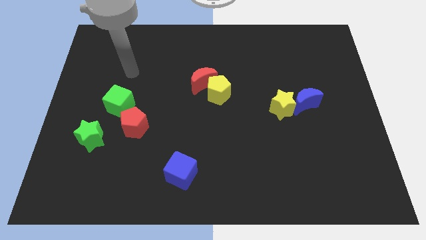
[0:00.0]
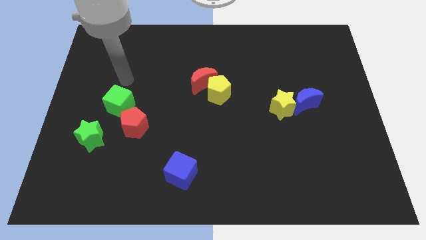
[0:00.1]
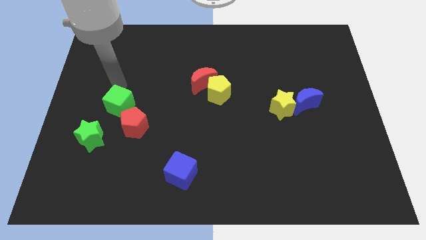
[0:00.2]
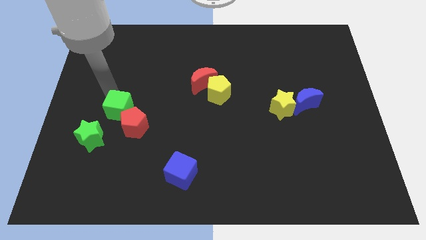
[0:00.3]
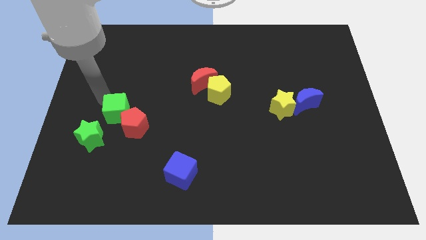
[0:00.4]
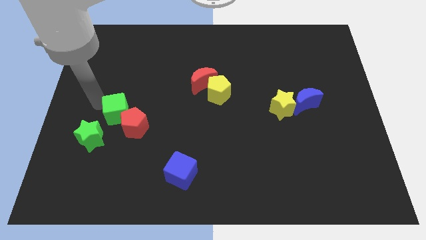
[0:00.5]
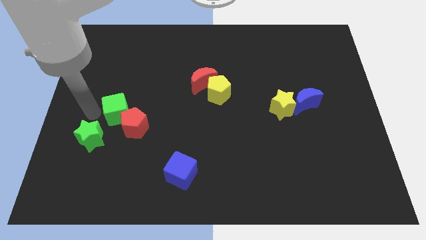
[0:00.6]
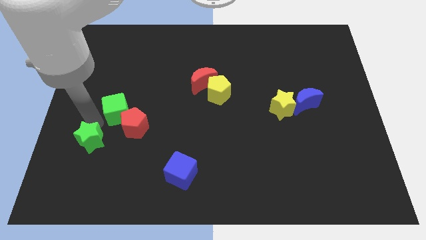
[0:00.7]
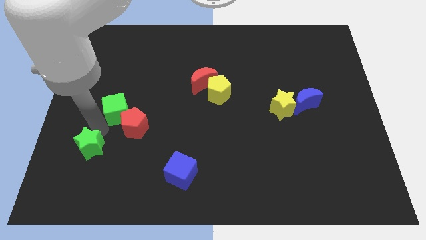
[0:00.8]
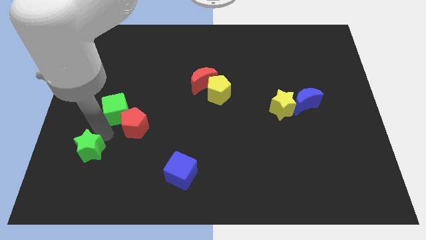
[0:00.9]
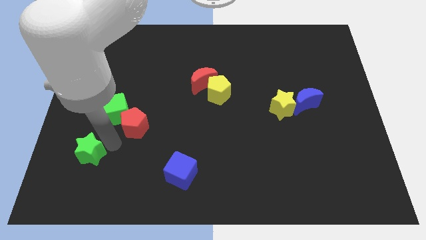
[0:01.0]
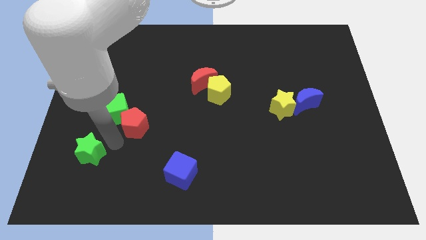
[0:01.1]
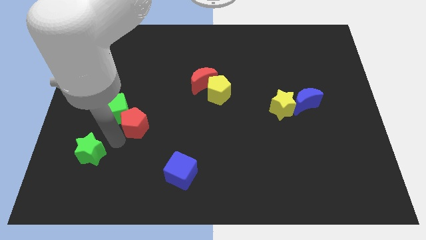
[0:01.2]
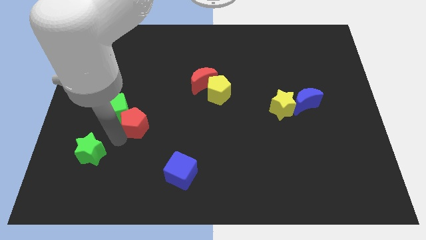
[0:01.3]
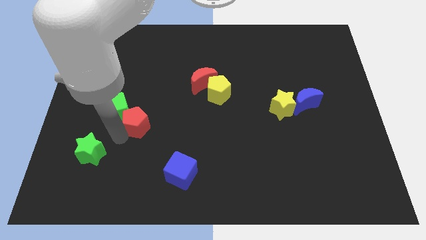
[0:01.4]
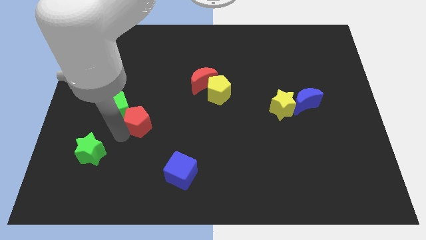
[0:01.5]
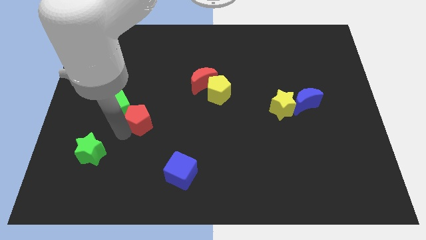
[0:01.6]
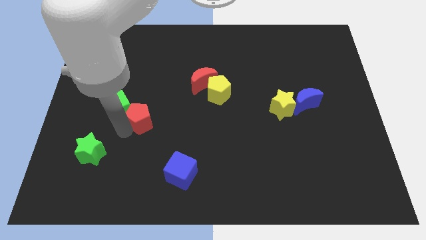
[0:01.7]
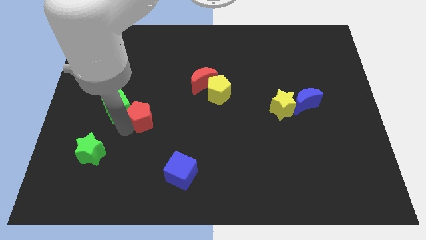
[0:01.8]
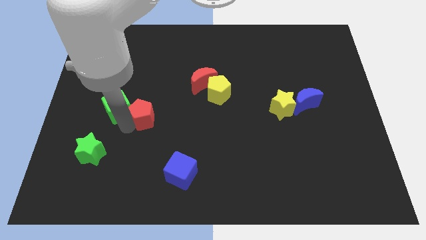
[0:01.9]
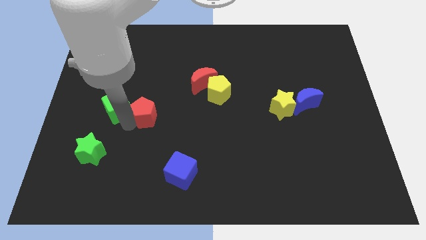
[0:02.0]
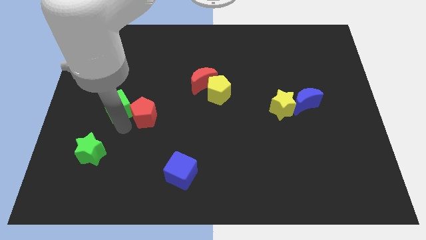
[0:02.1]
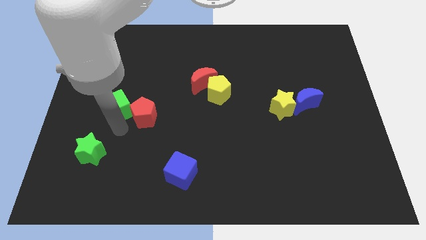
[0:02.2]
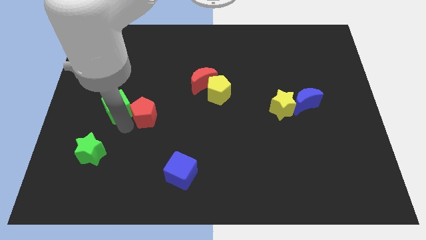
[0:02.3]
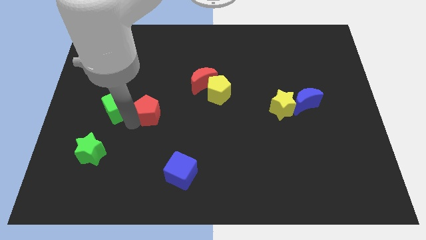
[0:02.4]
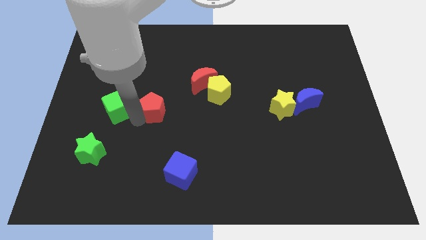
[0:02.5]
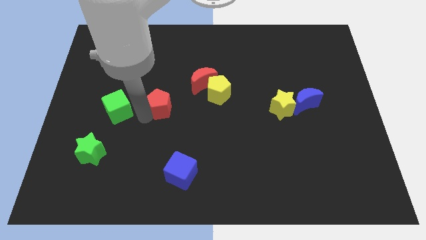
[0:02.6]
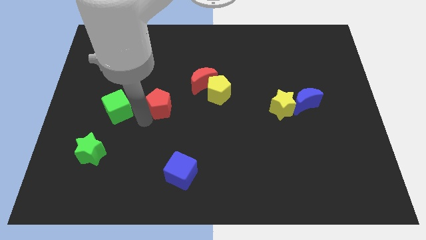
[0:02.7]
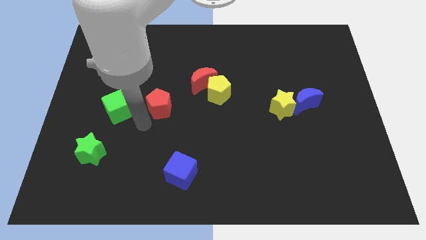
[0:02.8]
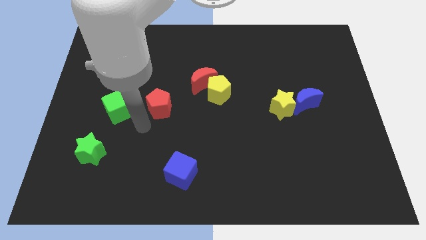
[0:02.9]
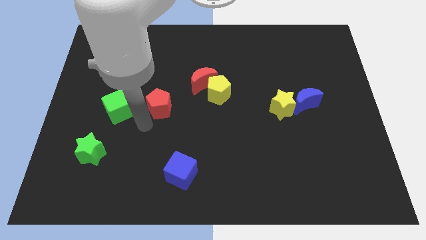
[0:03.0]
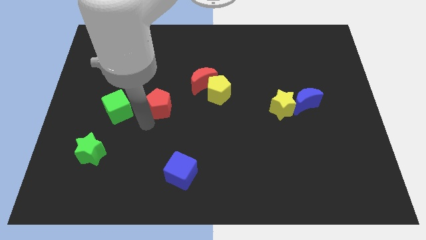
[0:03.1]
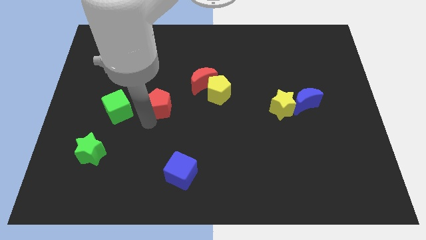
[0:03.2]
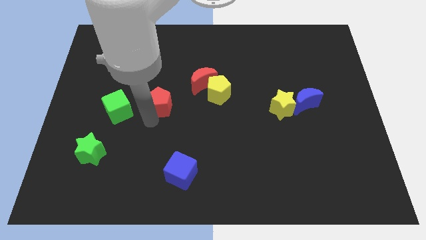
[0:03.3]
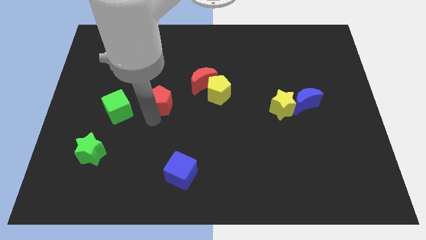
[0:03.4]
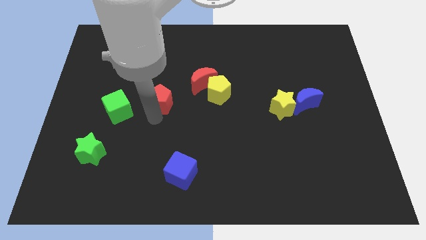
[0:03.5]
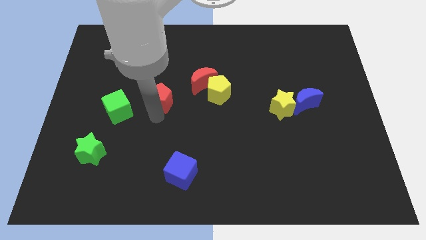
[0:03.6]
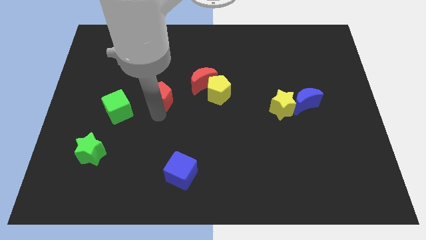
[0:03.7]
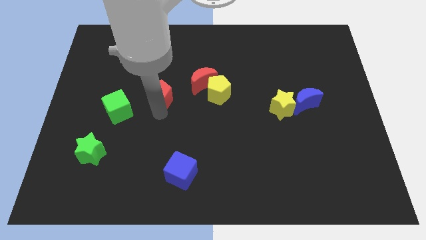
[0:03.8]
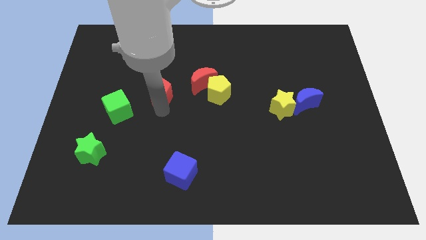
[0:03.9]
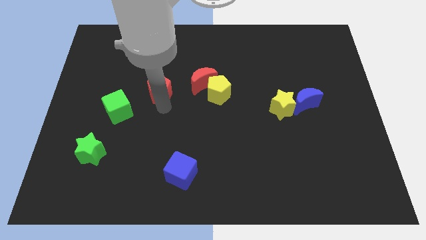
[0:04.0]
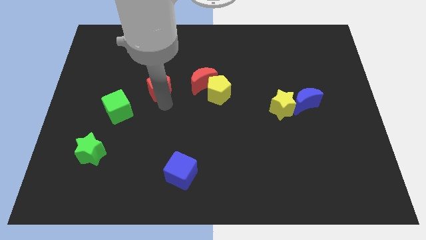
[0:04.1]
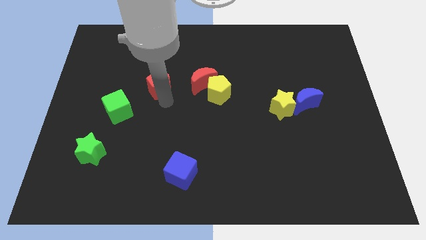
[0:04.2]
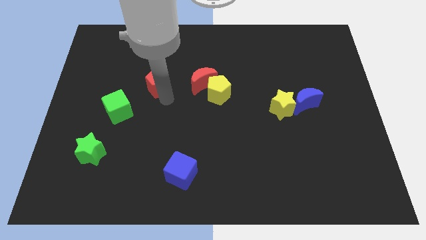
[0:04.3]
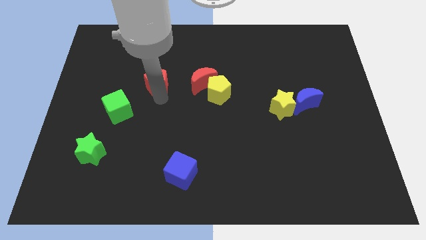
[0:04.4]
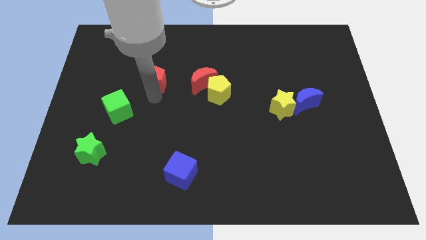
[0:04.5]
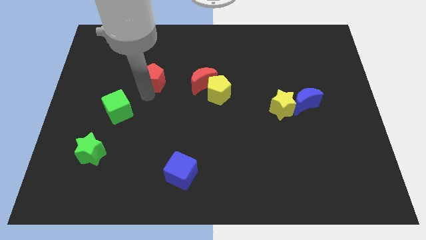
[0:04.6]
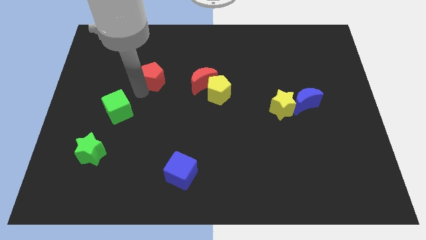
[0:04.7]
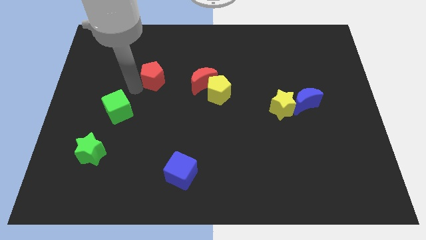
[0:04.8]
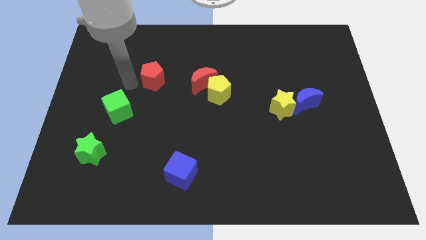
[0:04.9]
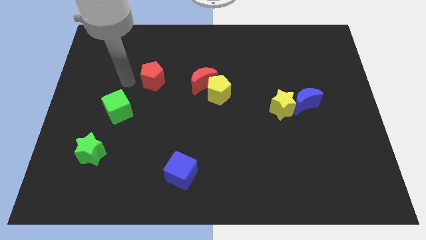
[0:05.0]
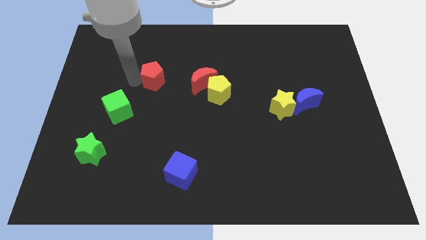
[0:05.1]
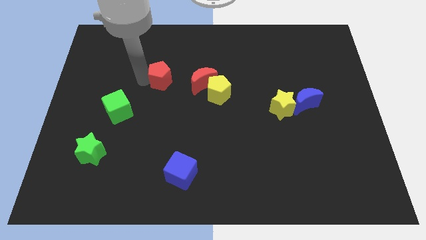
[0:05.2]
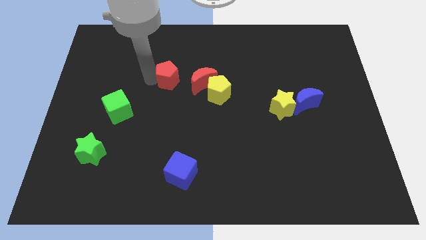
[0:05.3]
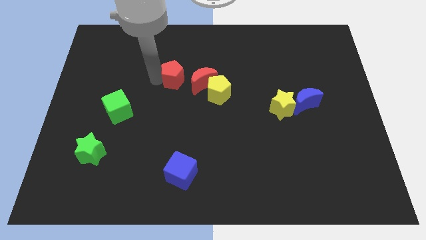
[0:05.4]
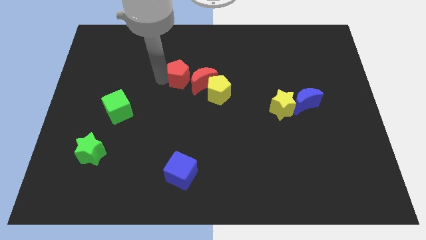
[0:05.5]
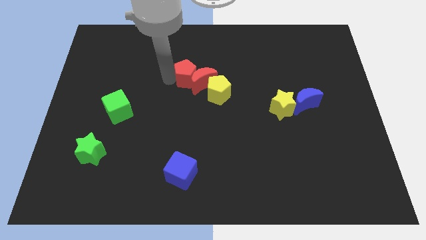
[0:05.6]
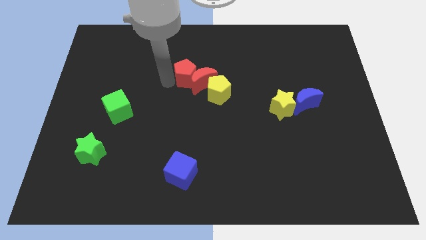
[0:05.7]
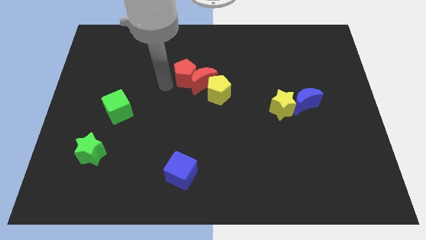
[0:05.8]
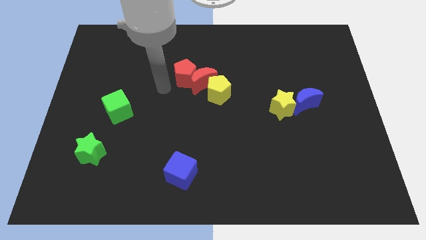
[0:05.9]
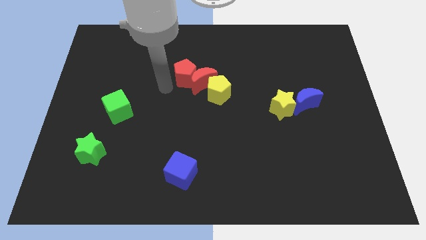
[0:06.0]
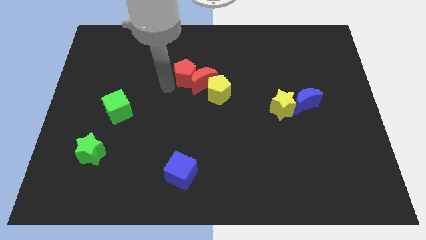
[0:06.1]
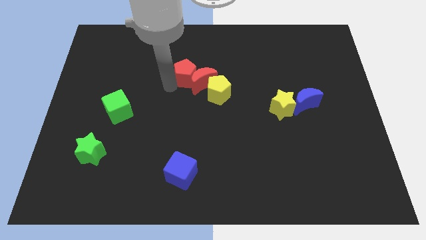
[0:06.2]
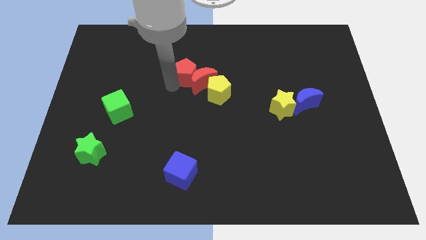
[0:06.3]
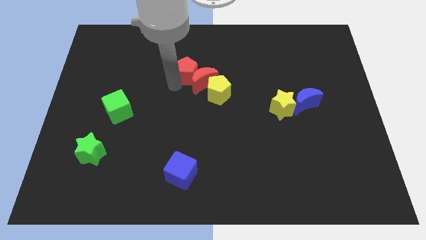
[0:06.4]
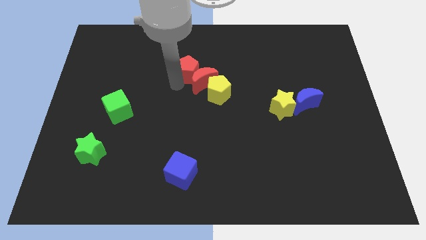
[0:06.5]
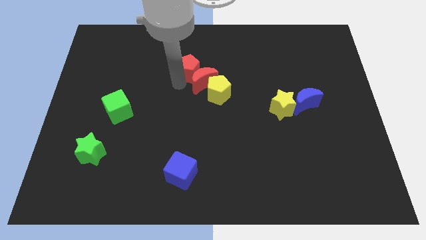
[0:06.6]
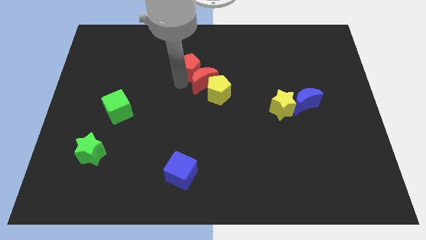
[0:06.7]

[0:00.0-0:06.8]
push the red pentagon up and to the right

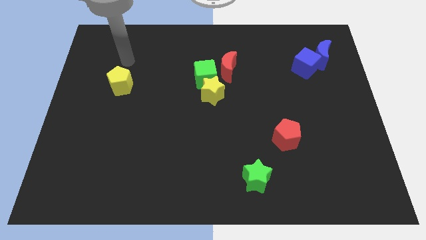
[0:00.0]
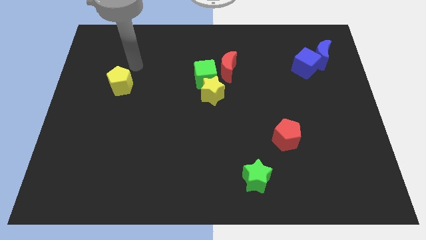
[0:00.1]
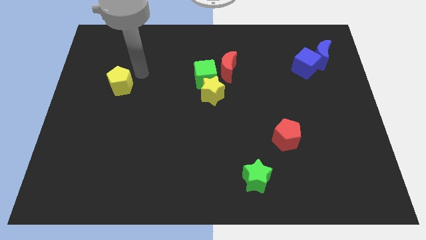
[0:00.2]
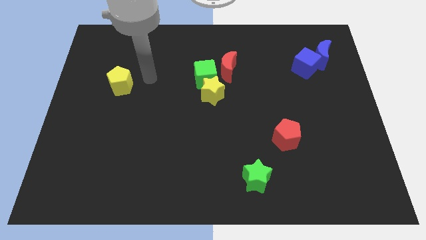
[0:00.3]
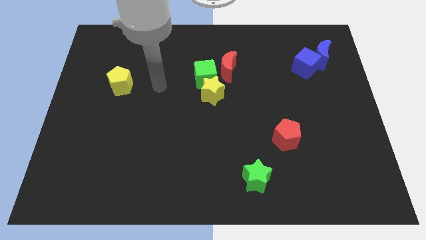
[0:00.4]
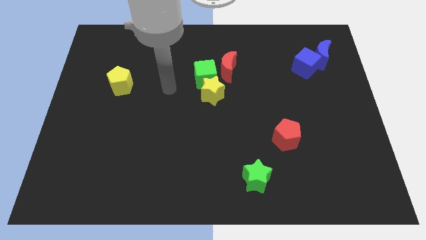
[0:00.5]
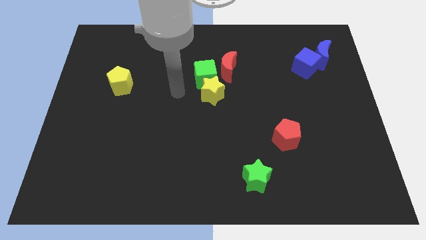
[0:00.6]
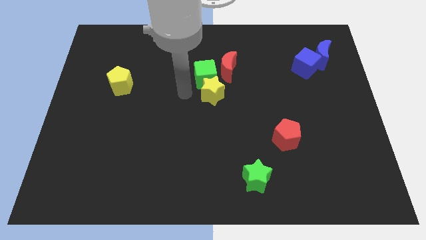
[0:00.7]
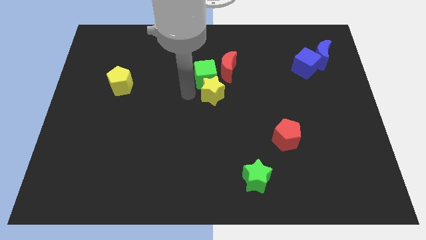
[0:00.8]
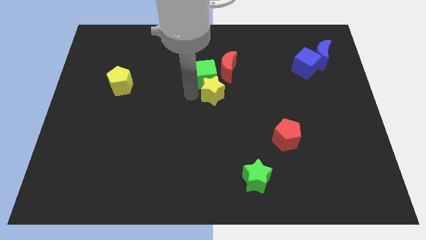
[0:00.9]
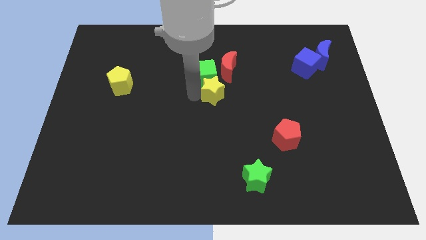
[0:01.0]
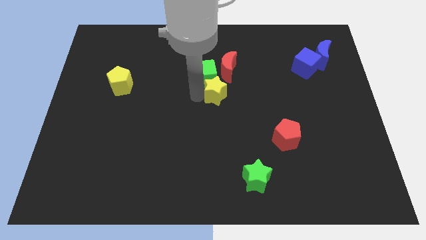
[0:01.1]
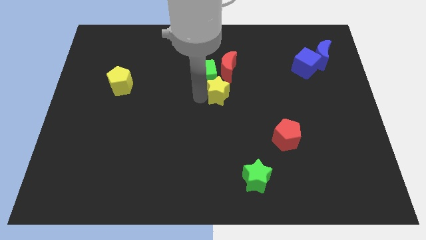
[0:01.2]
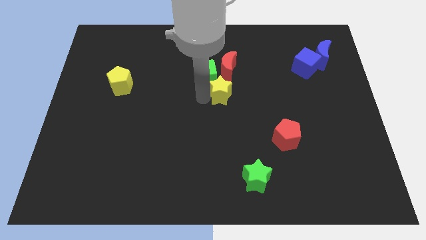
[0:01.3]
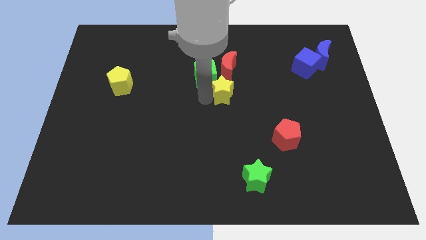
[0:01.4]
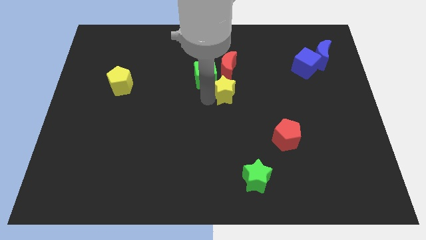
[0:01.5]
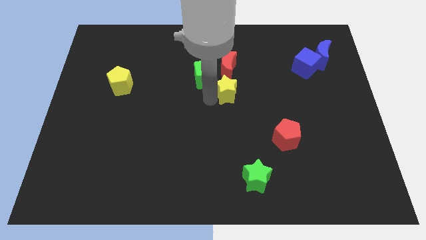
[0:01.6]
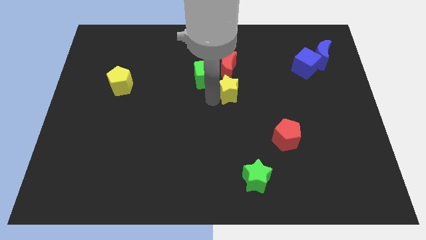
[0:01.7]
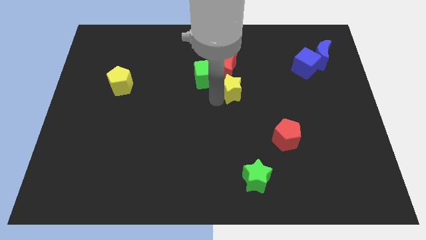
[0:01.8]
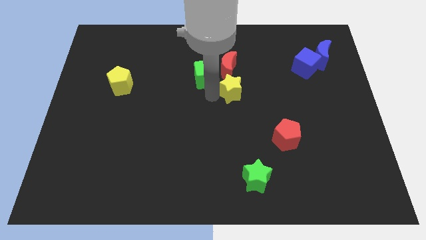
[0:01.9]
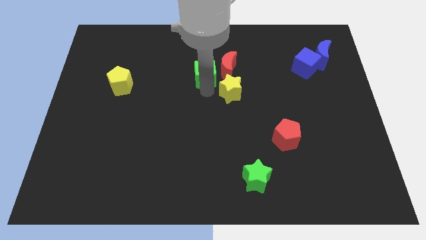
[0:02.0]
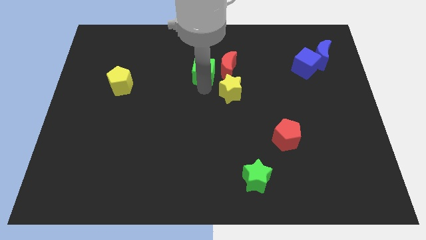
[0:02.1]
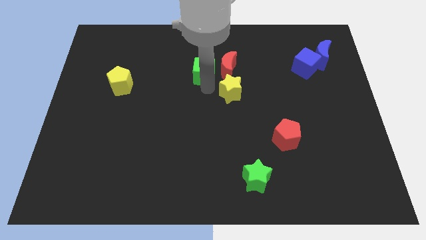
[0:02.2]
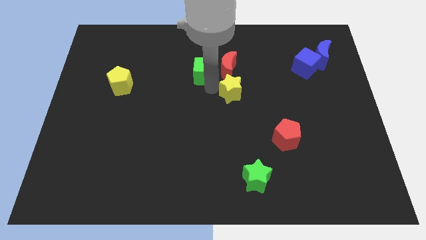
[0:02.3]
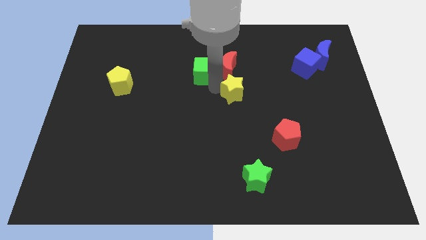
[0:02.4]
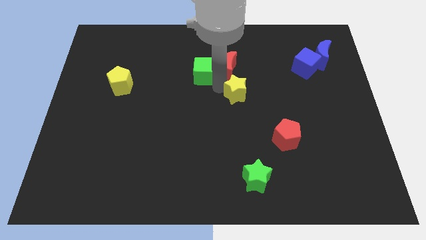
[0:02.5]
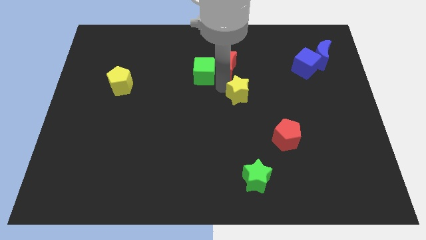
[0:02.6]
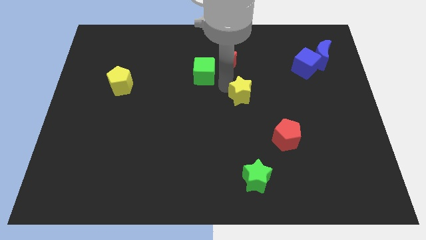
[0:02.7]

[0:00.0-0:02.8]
push the yellow star to the right a little
